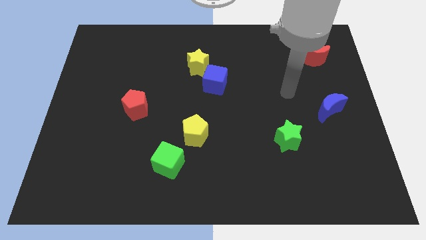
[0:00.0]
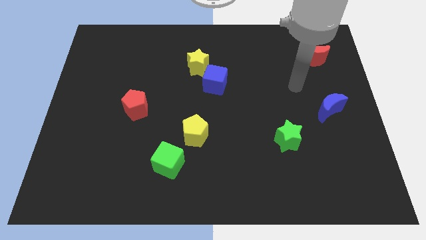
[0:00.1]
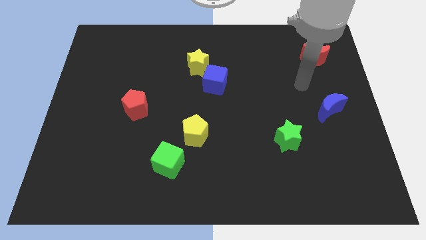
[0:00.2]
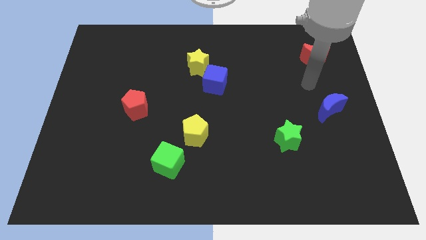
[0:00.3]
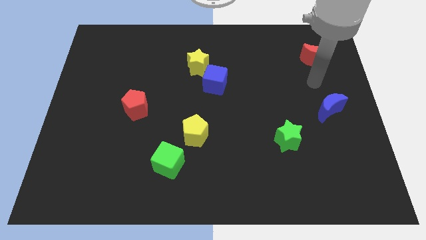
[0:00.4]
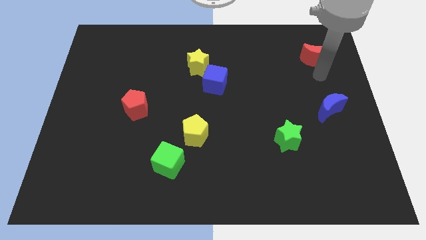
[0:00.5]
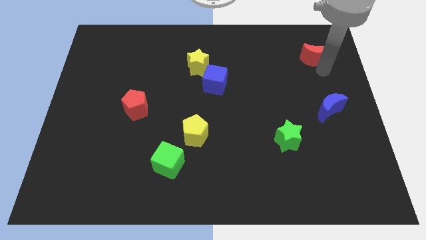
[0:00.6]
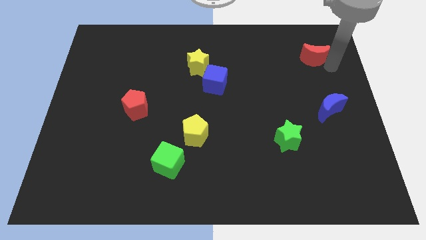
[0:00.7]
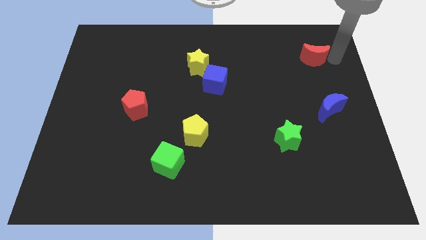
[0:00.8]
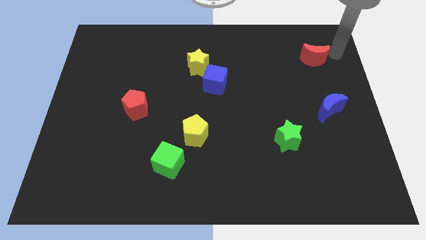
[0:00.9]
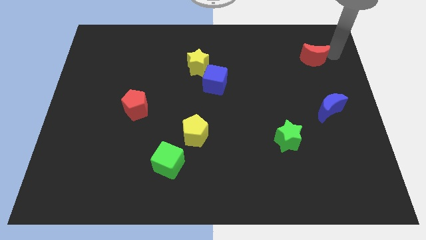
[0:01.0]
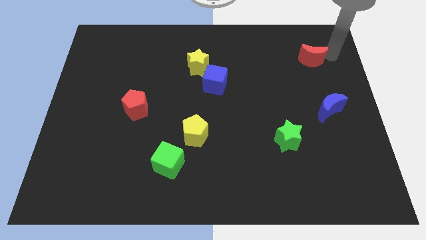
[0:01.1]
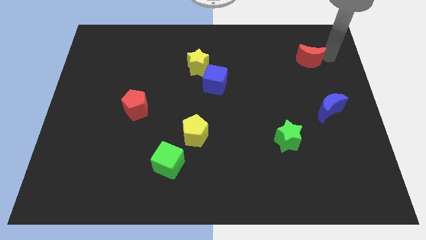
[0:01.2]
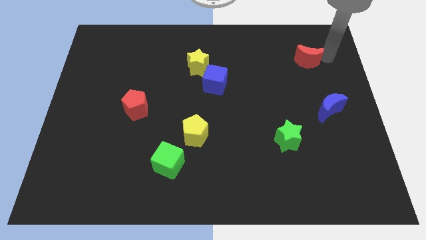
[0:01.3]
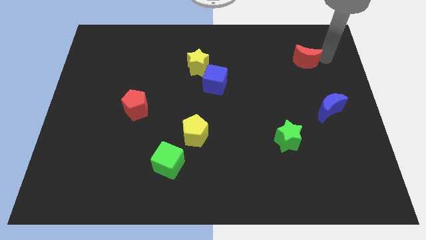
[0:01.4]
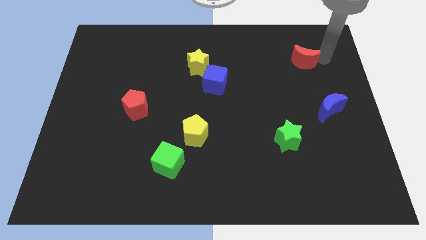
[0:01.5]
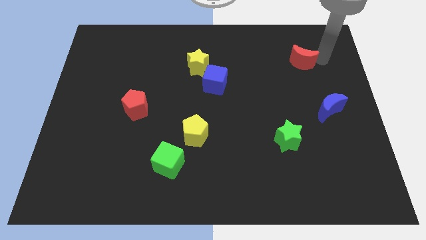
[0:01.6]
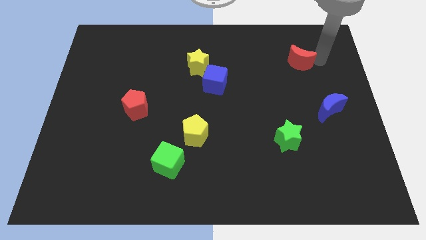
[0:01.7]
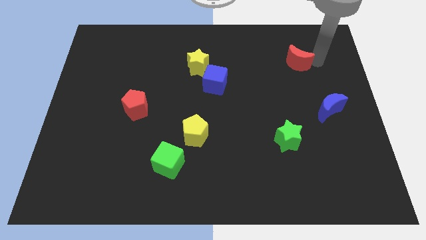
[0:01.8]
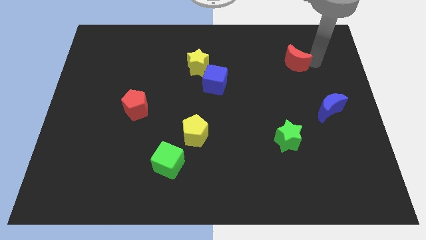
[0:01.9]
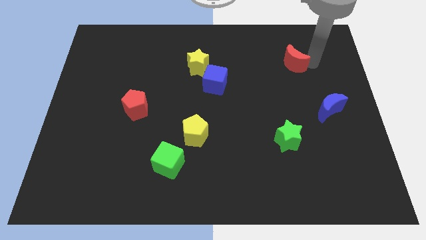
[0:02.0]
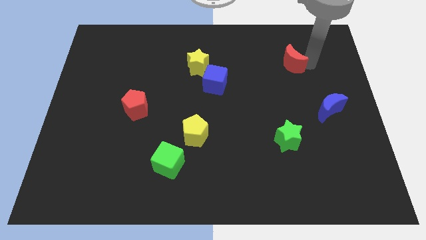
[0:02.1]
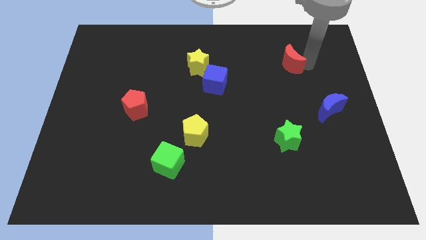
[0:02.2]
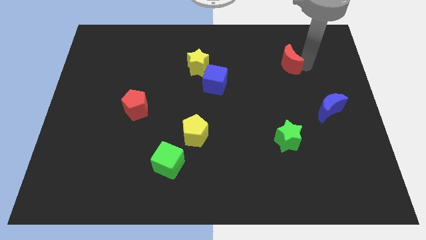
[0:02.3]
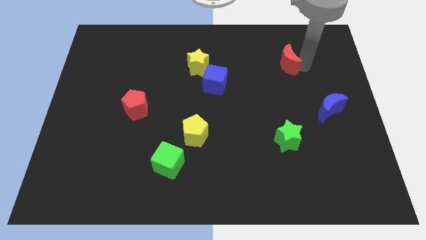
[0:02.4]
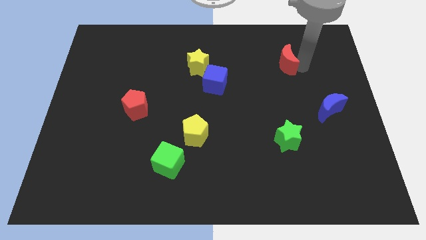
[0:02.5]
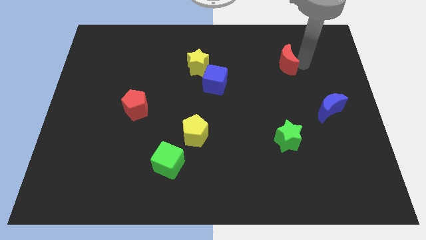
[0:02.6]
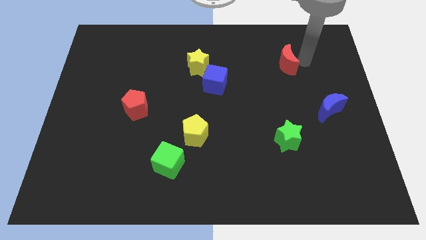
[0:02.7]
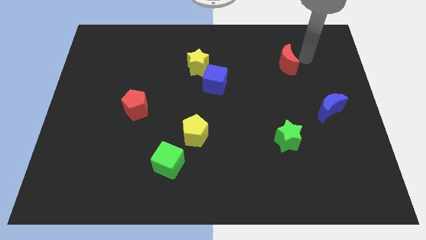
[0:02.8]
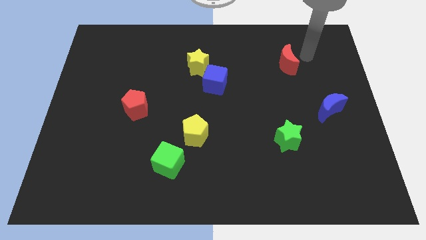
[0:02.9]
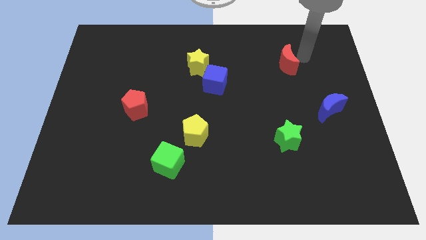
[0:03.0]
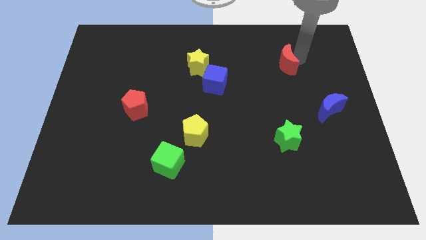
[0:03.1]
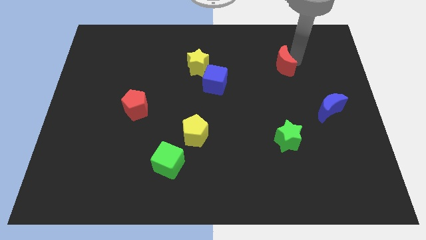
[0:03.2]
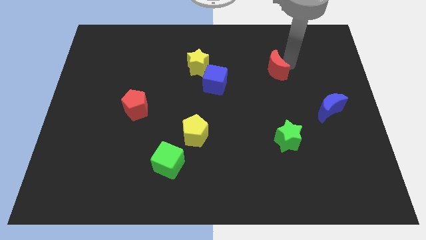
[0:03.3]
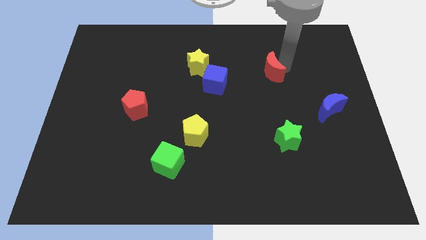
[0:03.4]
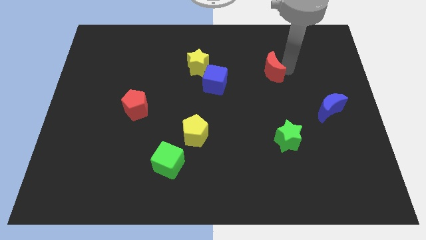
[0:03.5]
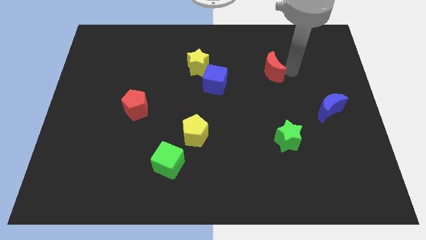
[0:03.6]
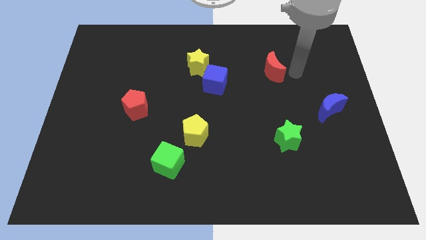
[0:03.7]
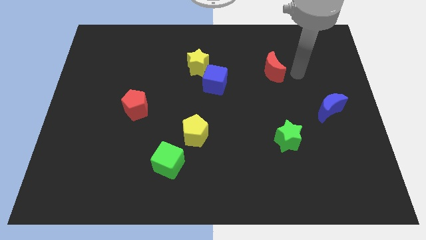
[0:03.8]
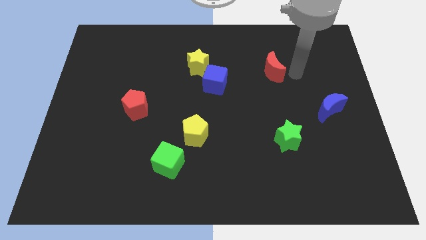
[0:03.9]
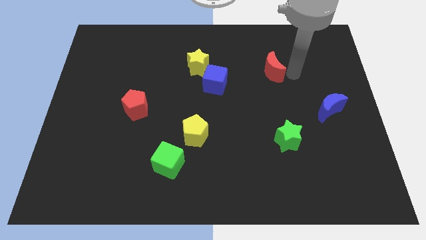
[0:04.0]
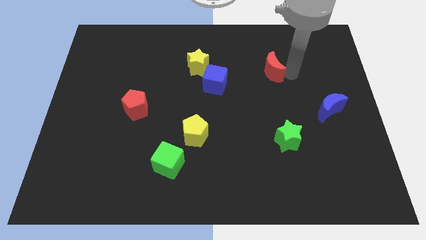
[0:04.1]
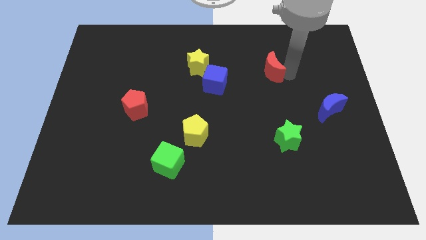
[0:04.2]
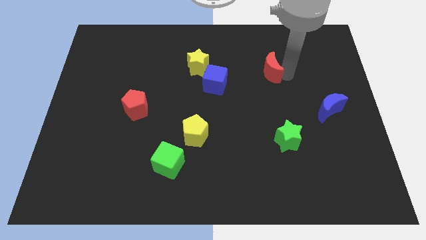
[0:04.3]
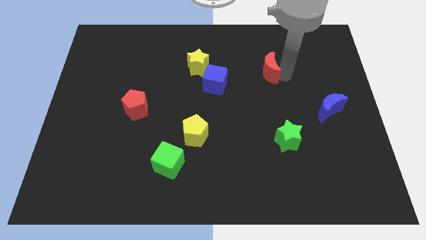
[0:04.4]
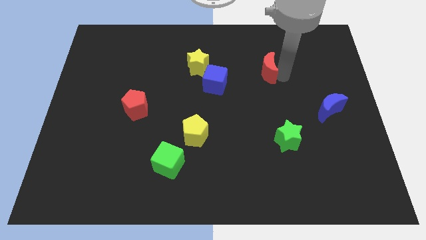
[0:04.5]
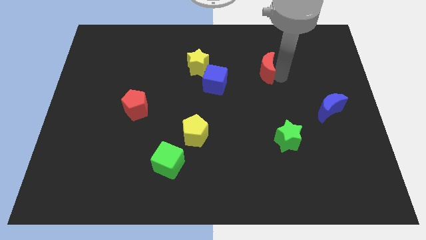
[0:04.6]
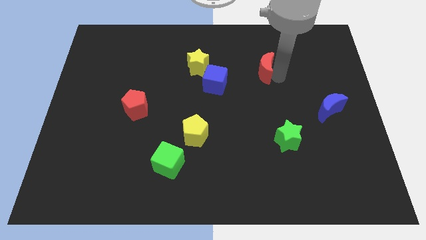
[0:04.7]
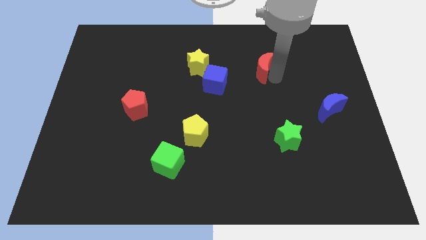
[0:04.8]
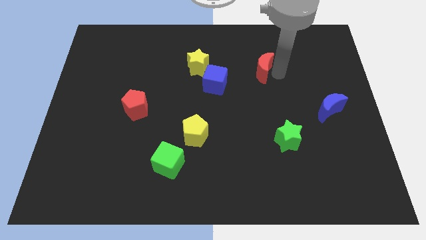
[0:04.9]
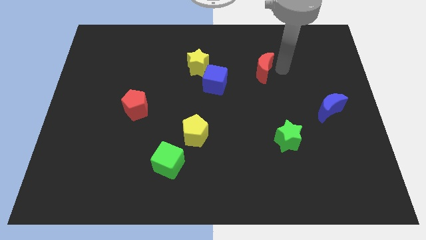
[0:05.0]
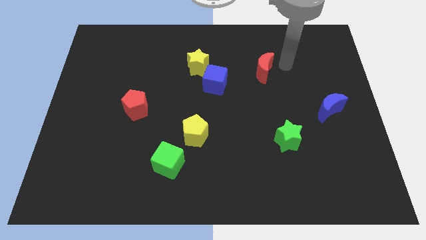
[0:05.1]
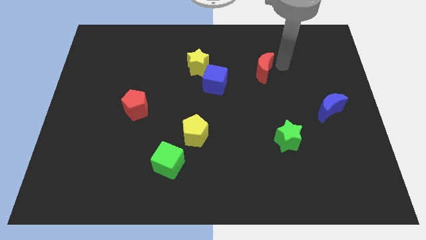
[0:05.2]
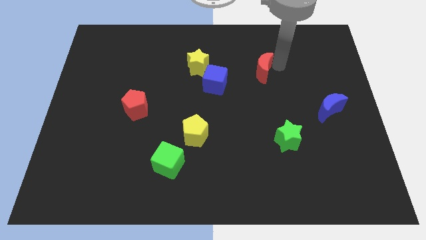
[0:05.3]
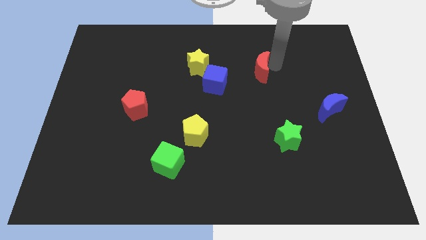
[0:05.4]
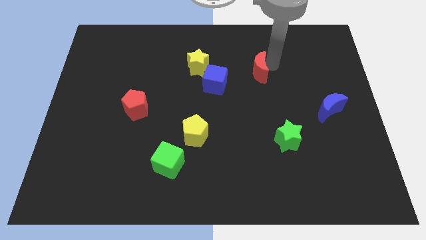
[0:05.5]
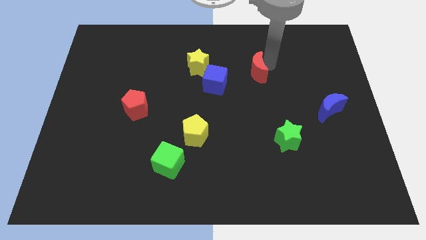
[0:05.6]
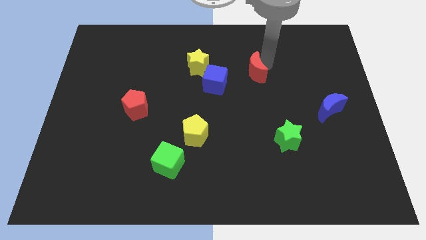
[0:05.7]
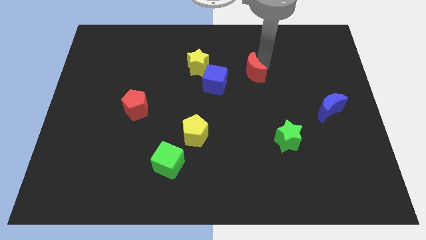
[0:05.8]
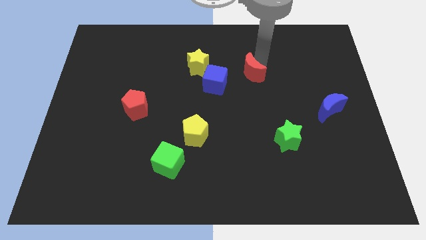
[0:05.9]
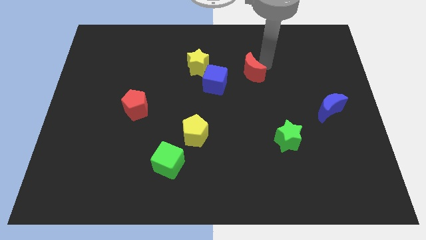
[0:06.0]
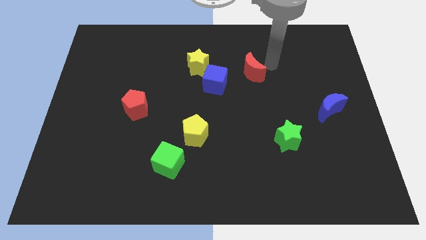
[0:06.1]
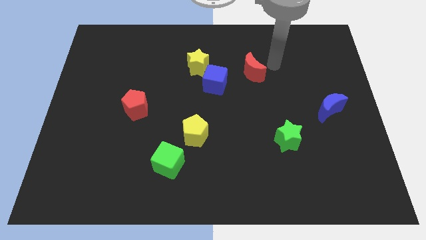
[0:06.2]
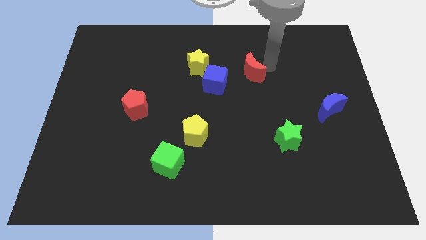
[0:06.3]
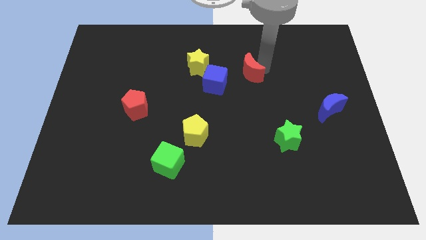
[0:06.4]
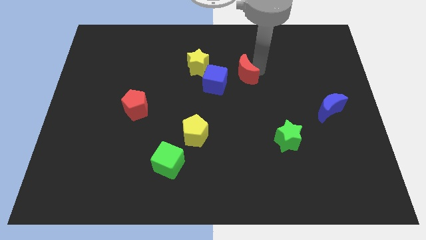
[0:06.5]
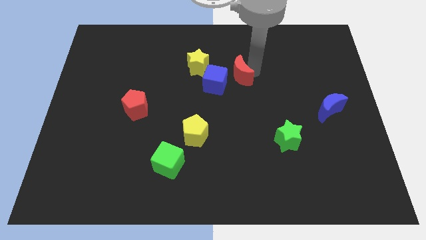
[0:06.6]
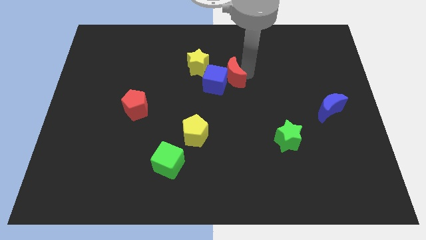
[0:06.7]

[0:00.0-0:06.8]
move the red moon to the blue cube

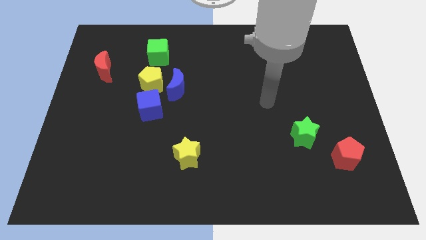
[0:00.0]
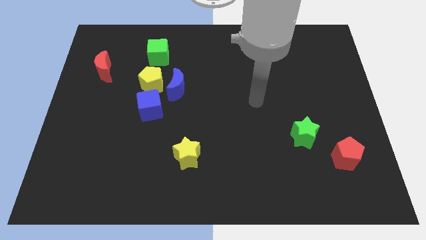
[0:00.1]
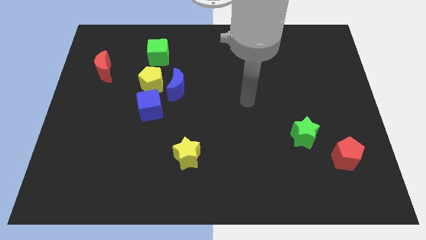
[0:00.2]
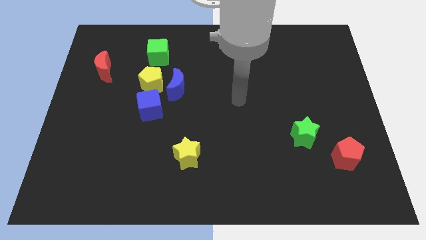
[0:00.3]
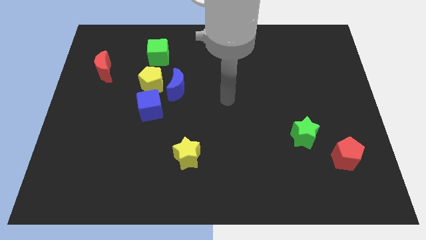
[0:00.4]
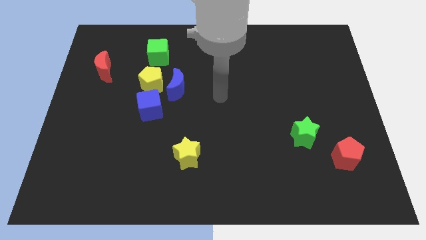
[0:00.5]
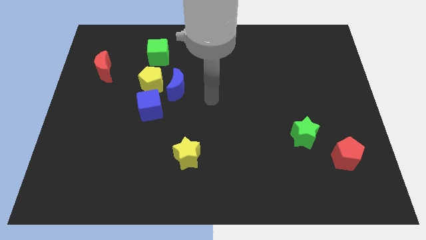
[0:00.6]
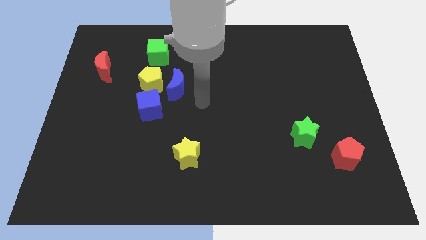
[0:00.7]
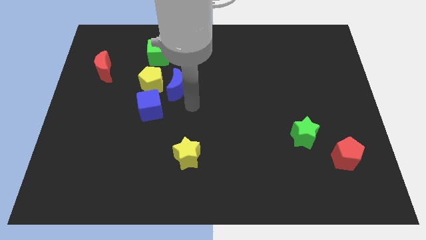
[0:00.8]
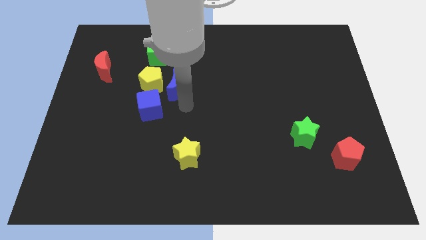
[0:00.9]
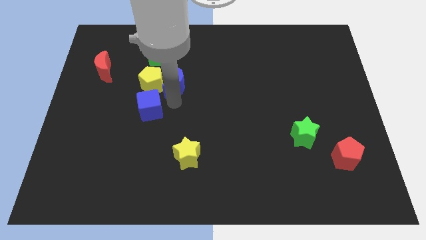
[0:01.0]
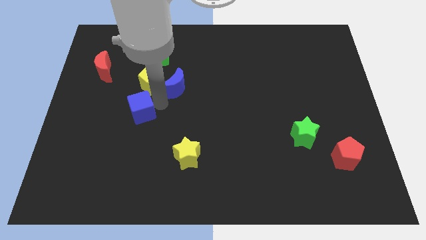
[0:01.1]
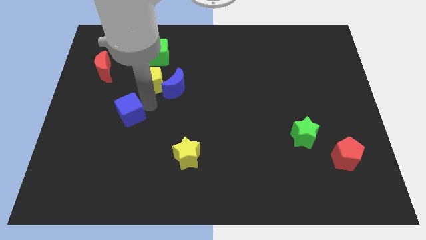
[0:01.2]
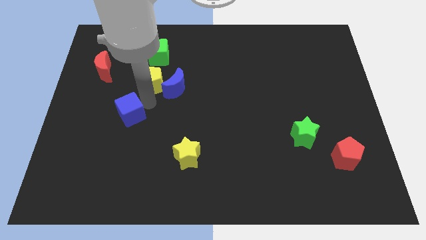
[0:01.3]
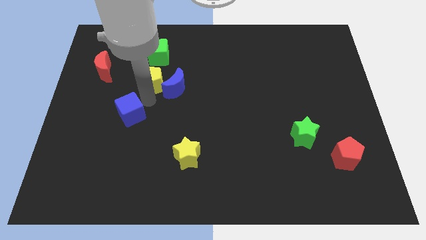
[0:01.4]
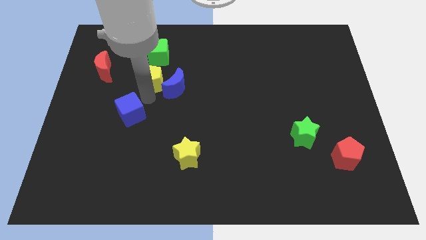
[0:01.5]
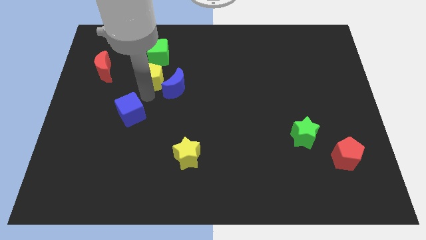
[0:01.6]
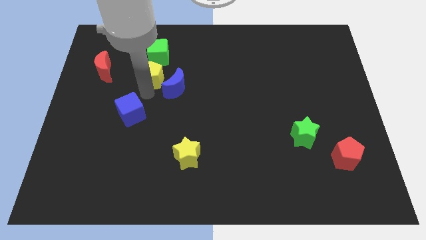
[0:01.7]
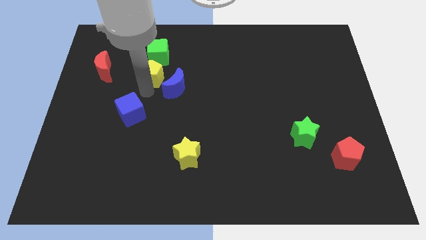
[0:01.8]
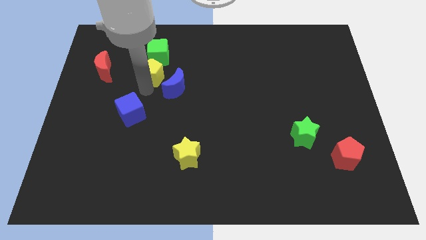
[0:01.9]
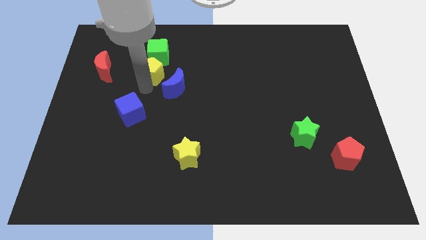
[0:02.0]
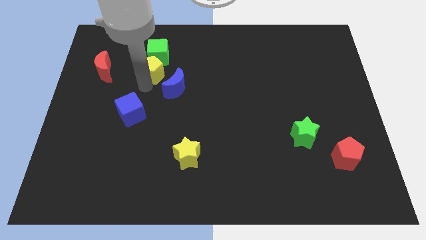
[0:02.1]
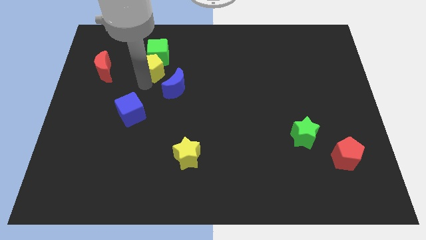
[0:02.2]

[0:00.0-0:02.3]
push the yellow pentagon towards the green cube
